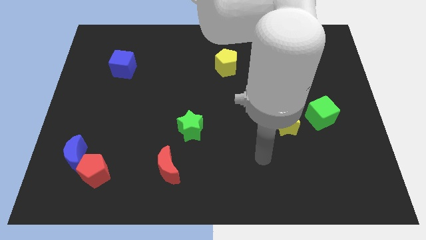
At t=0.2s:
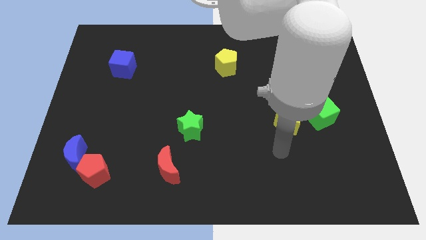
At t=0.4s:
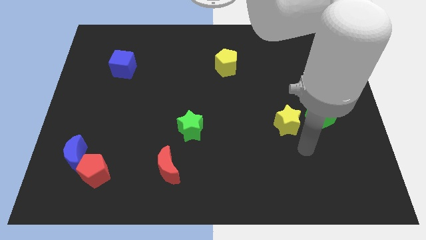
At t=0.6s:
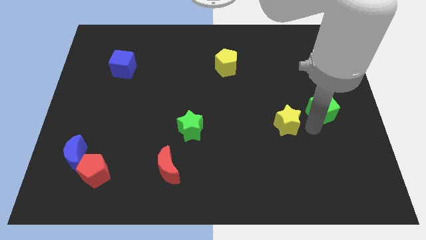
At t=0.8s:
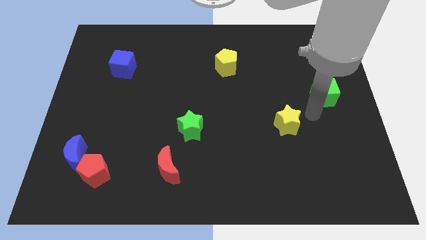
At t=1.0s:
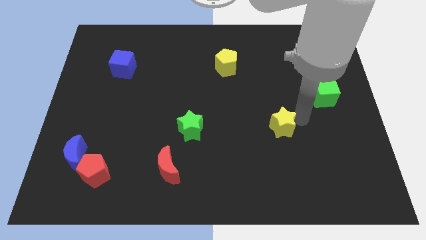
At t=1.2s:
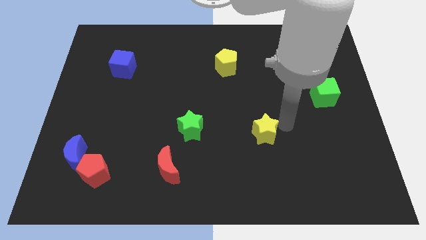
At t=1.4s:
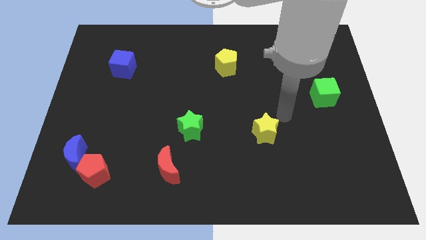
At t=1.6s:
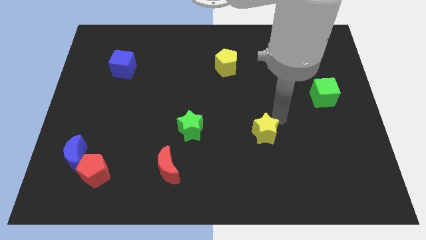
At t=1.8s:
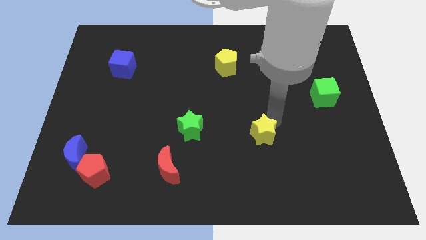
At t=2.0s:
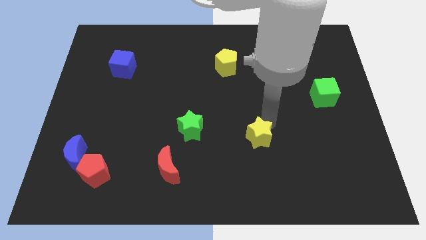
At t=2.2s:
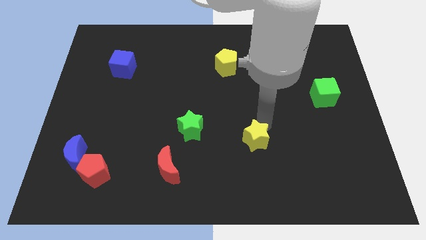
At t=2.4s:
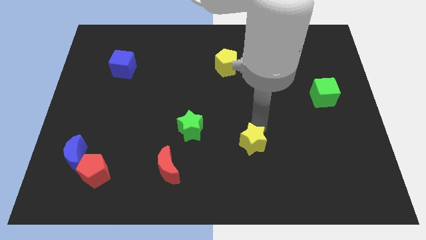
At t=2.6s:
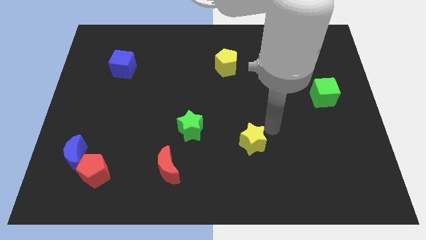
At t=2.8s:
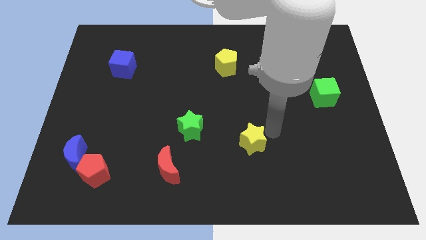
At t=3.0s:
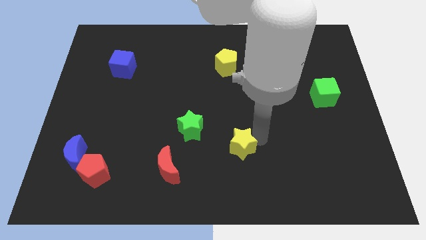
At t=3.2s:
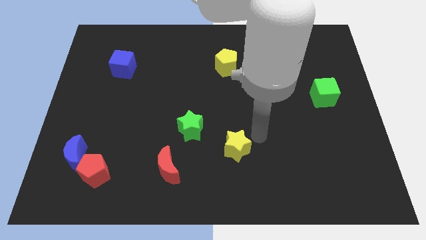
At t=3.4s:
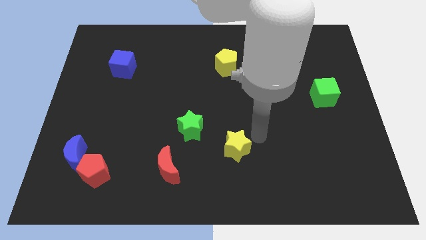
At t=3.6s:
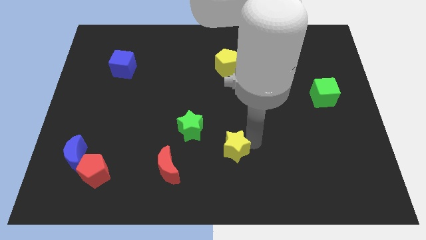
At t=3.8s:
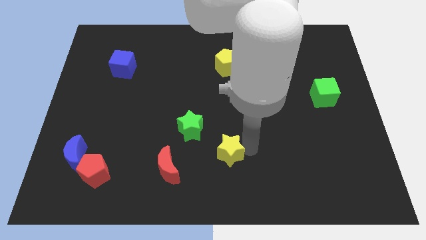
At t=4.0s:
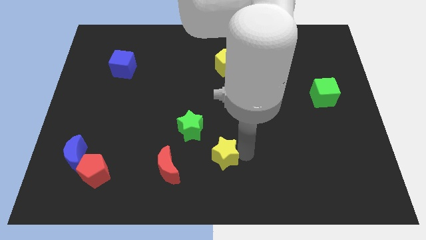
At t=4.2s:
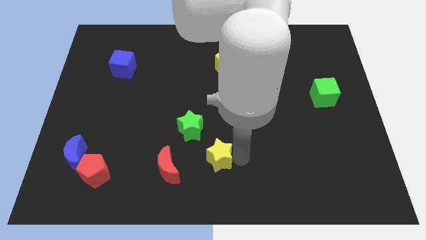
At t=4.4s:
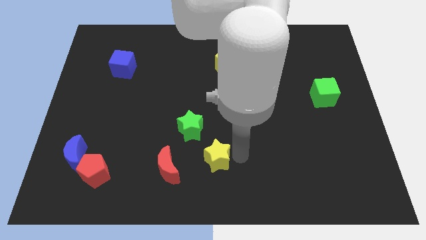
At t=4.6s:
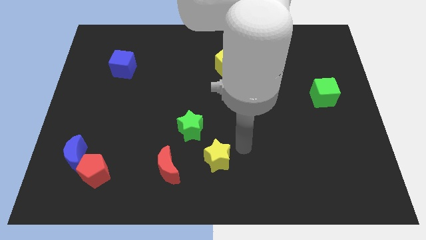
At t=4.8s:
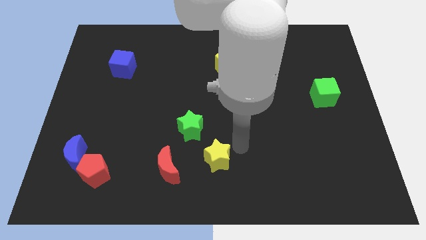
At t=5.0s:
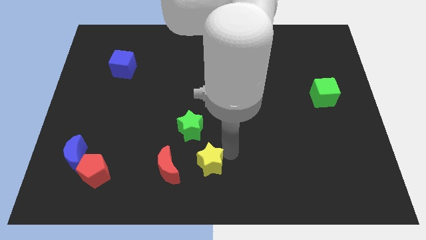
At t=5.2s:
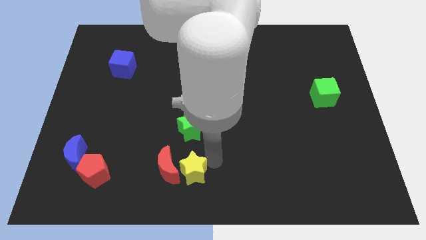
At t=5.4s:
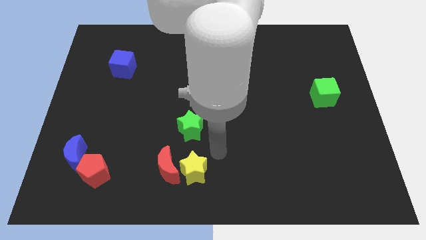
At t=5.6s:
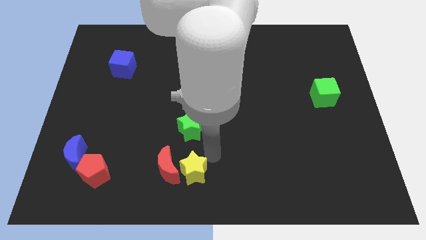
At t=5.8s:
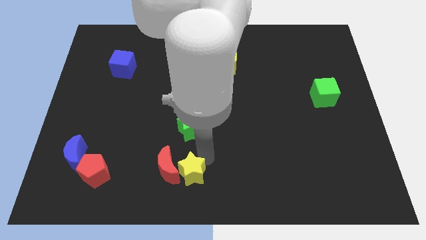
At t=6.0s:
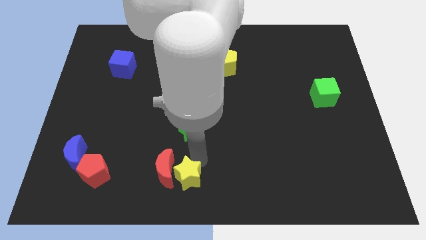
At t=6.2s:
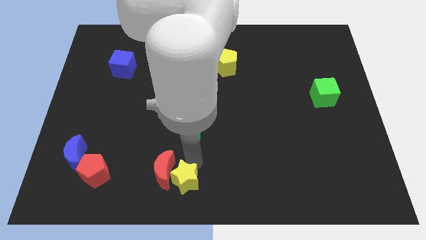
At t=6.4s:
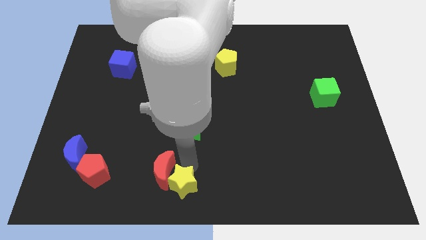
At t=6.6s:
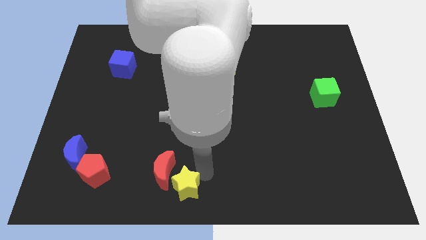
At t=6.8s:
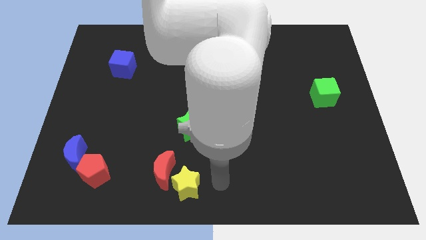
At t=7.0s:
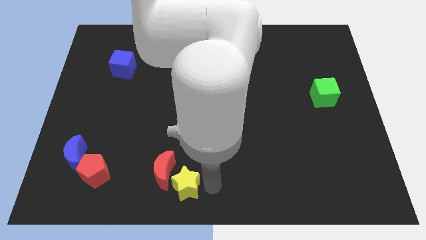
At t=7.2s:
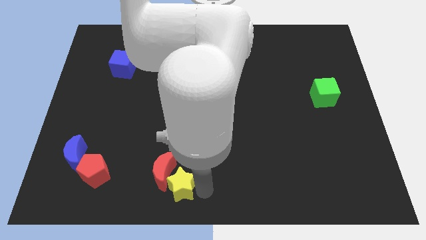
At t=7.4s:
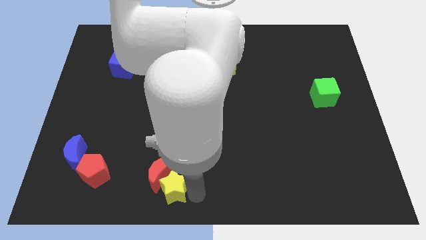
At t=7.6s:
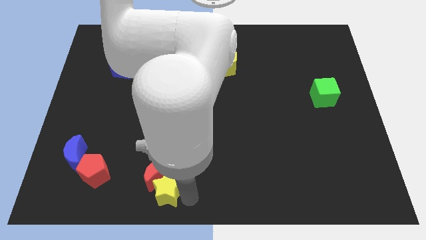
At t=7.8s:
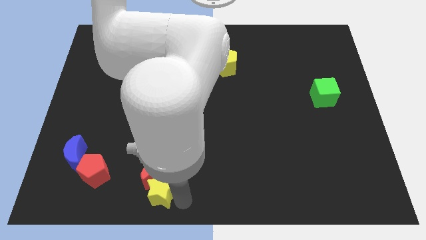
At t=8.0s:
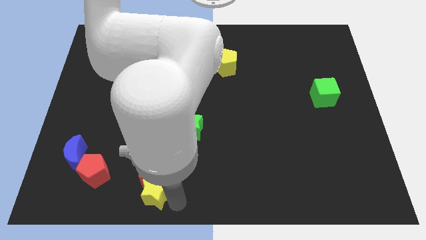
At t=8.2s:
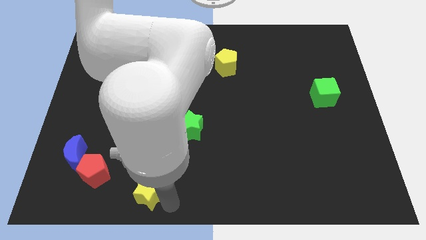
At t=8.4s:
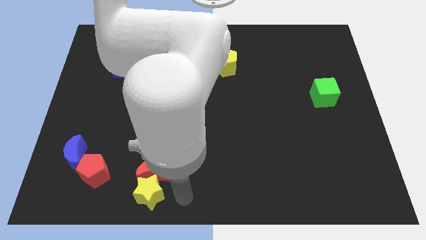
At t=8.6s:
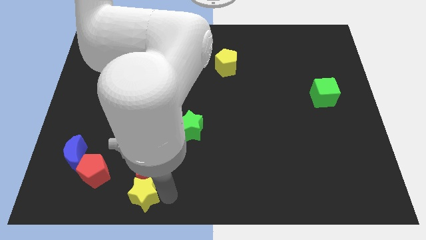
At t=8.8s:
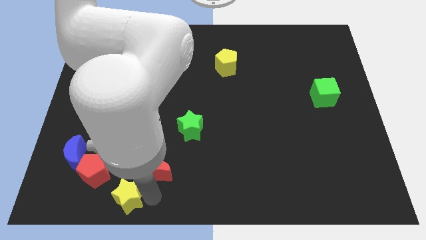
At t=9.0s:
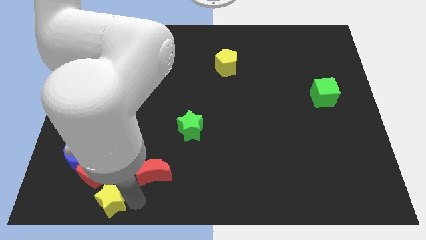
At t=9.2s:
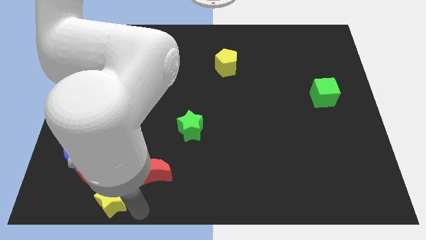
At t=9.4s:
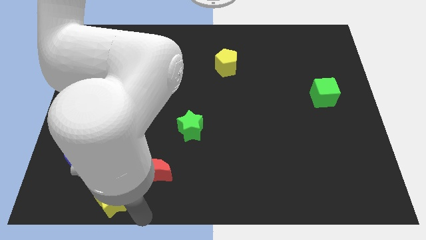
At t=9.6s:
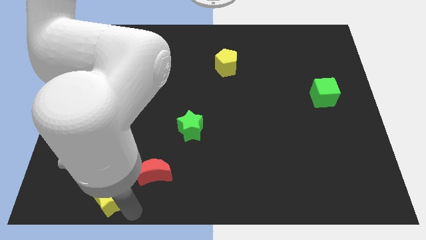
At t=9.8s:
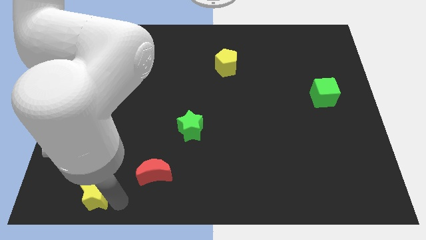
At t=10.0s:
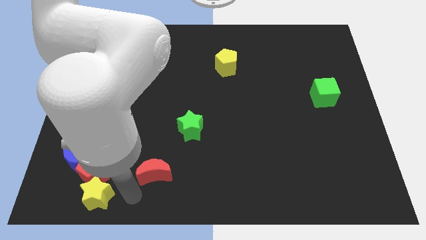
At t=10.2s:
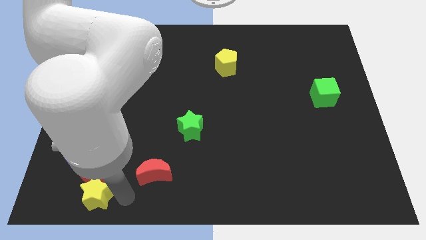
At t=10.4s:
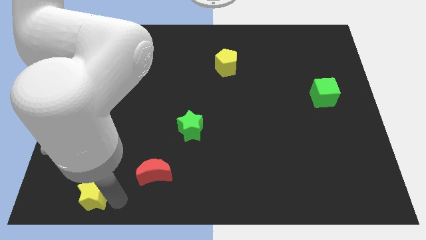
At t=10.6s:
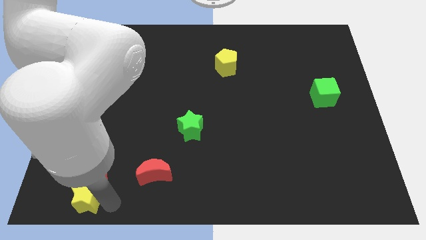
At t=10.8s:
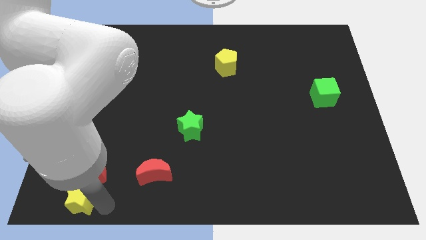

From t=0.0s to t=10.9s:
put the yellow star to the bottom left corner

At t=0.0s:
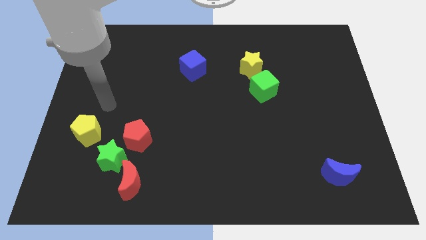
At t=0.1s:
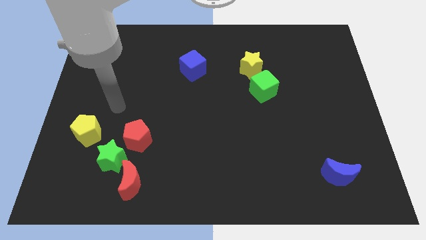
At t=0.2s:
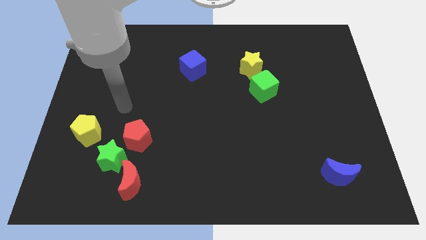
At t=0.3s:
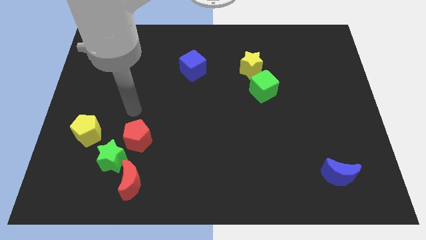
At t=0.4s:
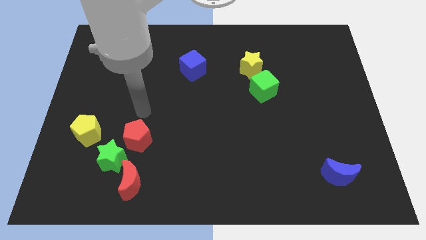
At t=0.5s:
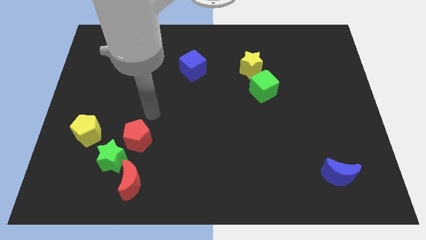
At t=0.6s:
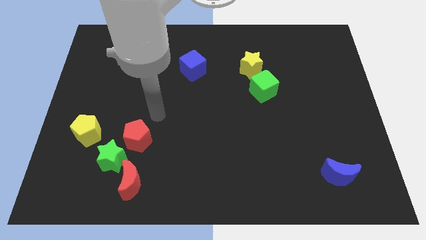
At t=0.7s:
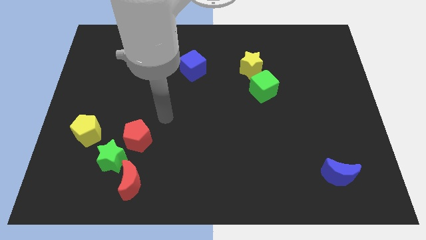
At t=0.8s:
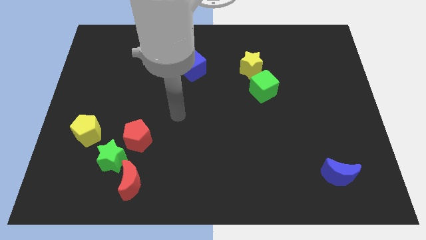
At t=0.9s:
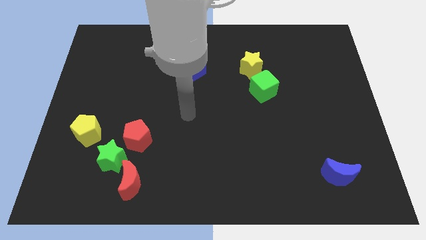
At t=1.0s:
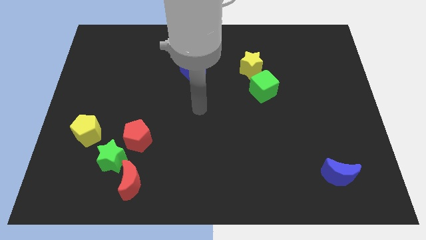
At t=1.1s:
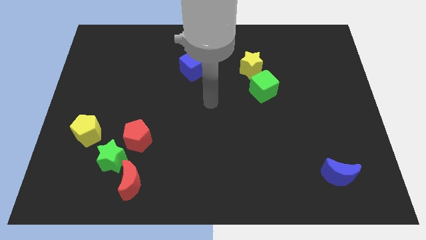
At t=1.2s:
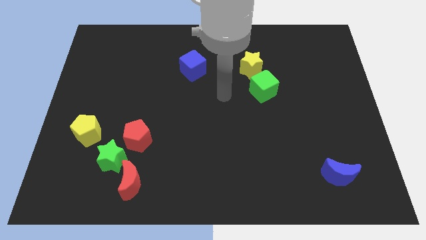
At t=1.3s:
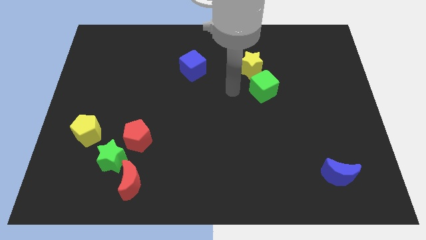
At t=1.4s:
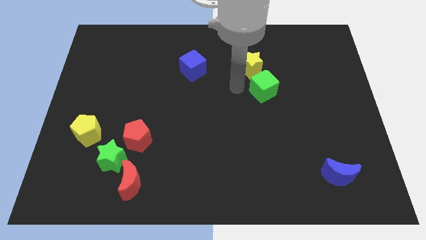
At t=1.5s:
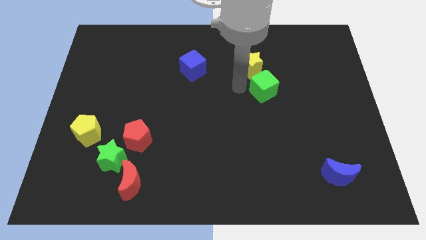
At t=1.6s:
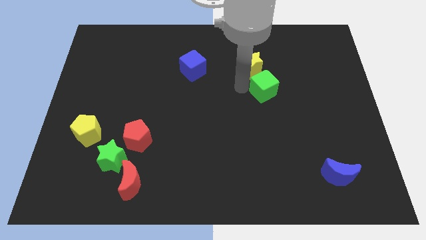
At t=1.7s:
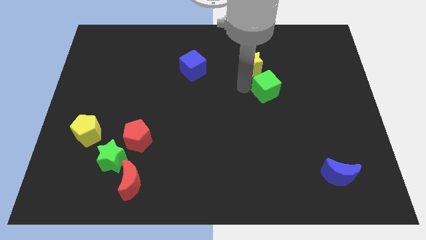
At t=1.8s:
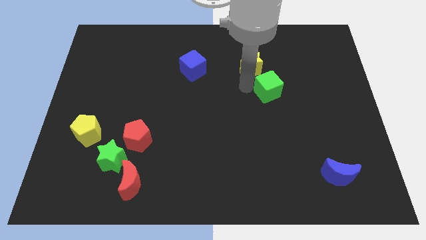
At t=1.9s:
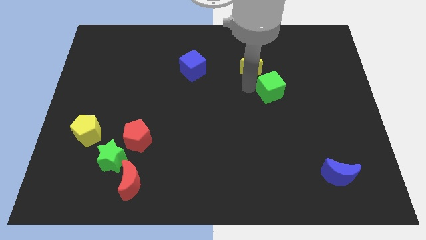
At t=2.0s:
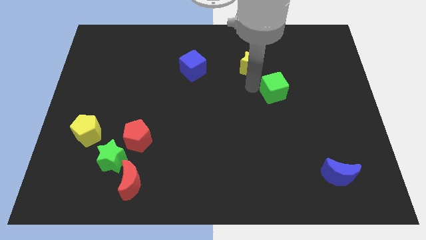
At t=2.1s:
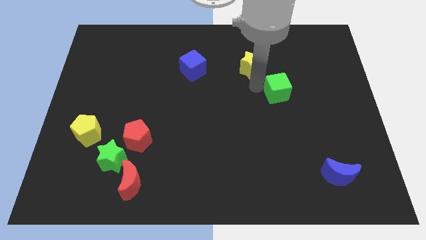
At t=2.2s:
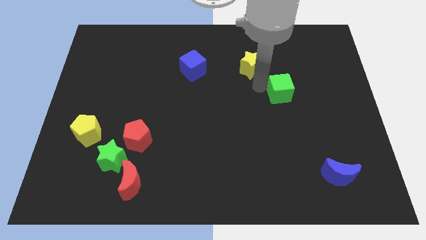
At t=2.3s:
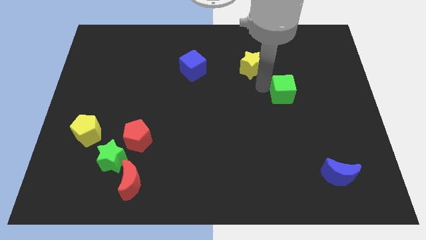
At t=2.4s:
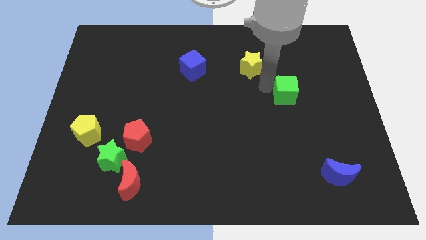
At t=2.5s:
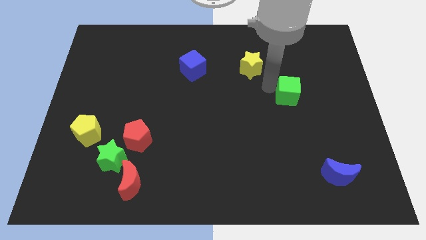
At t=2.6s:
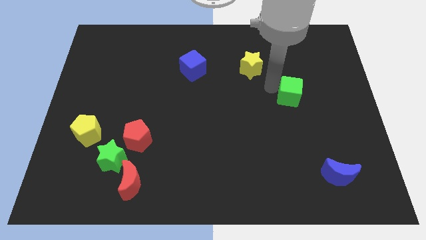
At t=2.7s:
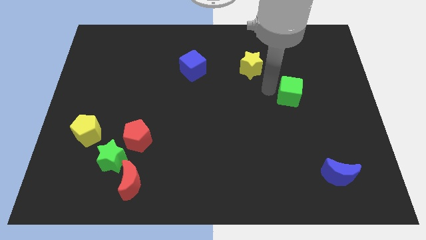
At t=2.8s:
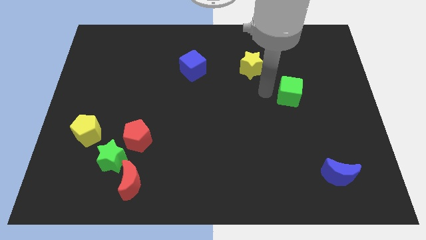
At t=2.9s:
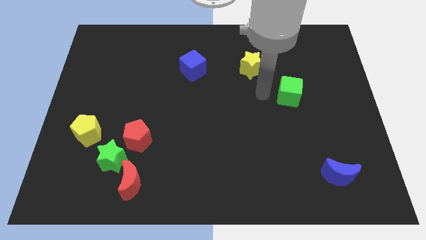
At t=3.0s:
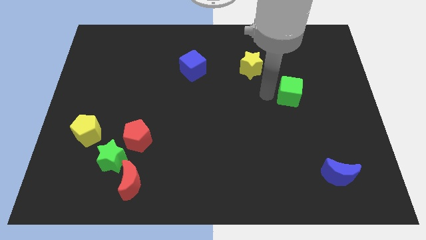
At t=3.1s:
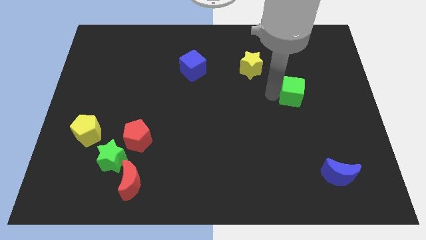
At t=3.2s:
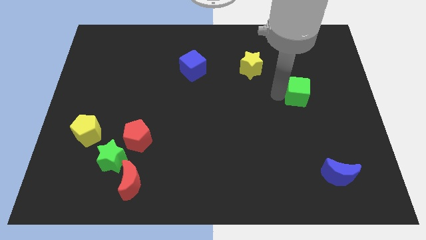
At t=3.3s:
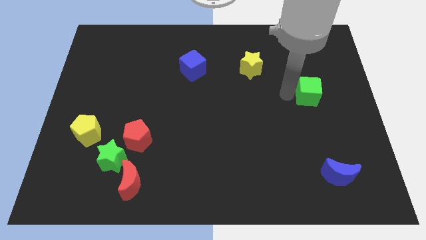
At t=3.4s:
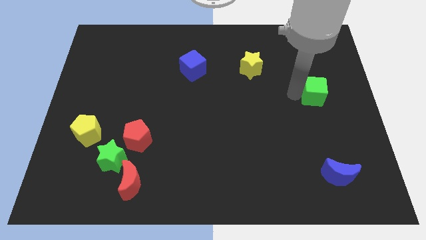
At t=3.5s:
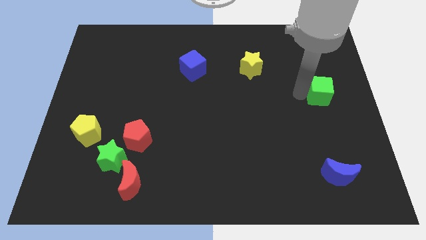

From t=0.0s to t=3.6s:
move the green cube to the right side of the board
